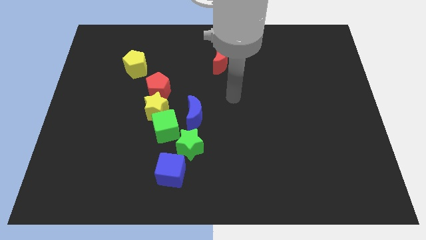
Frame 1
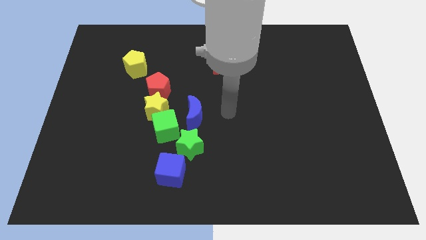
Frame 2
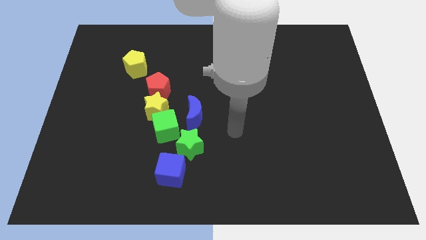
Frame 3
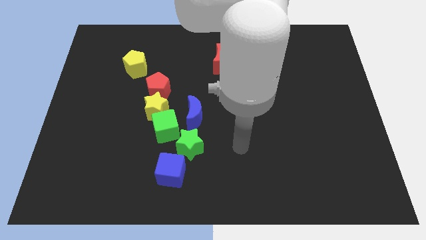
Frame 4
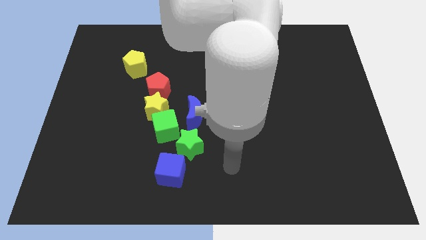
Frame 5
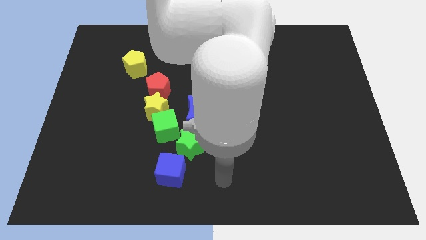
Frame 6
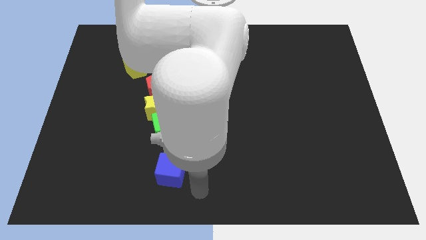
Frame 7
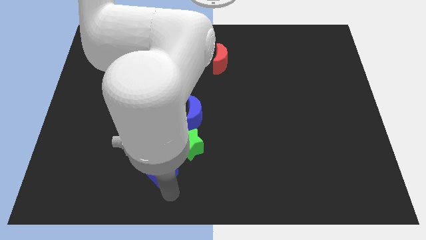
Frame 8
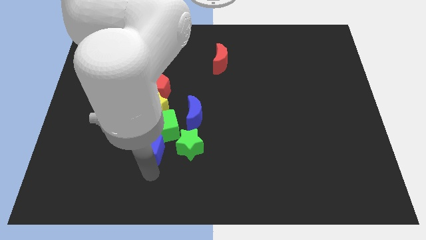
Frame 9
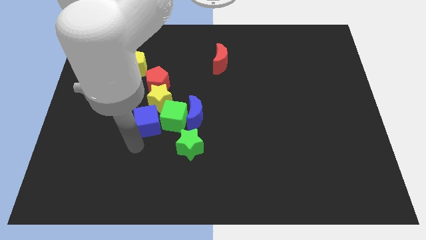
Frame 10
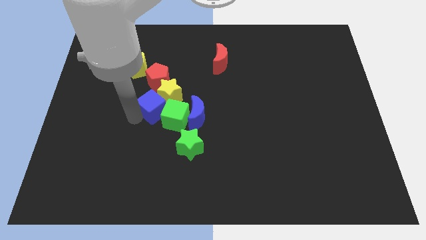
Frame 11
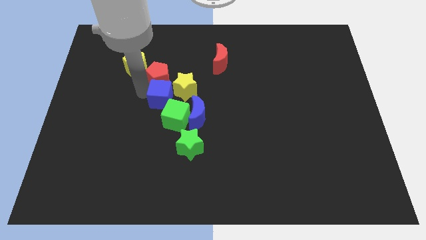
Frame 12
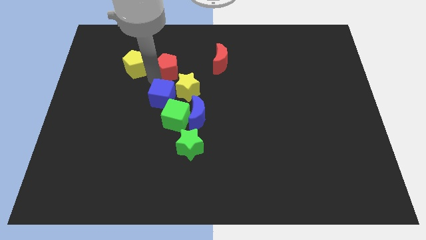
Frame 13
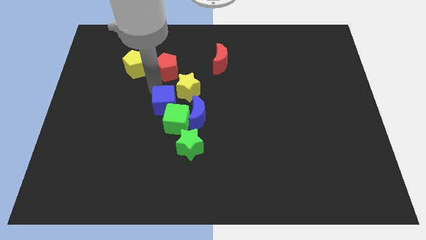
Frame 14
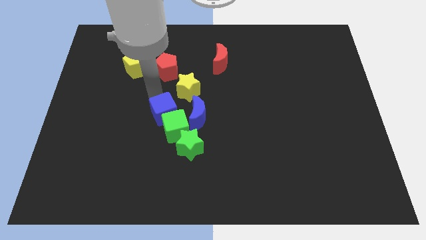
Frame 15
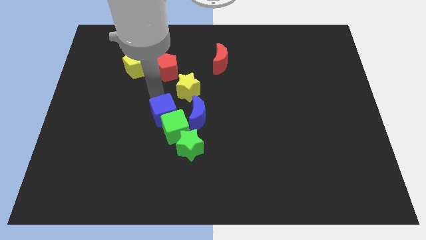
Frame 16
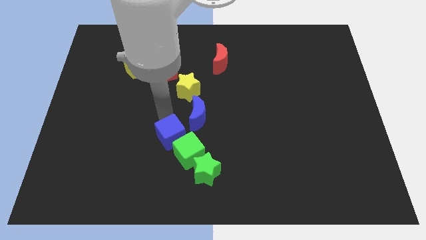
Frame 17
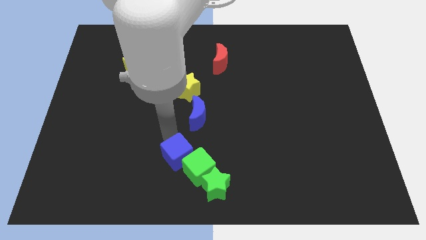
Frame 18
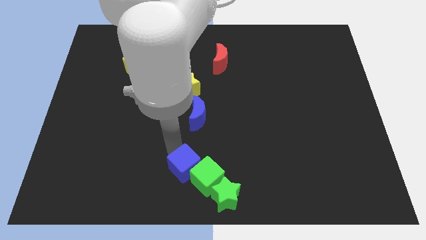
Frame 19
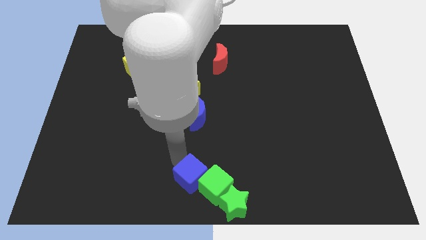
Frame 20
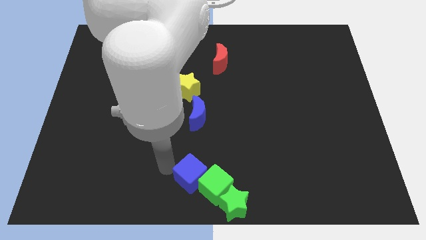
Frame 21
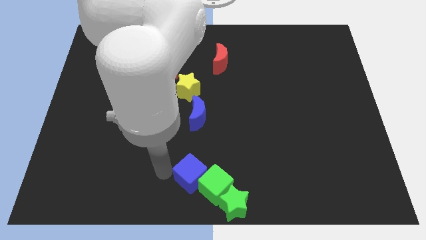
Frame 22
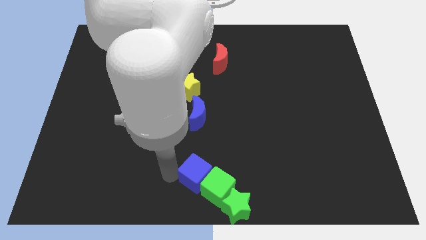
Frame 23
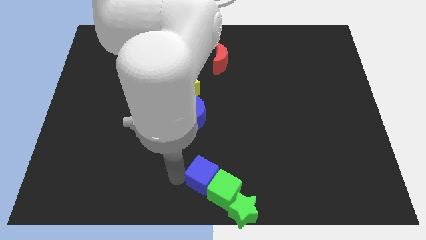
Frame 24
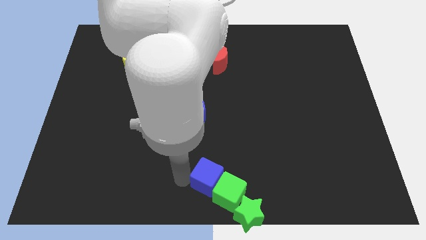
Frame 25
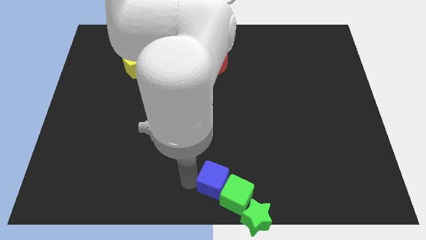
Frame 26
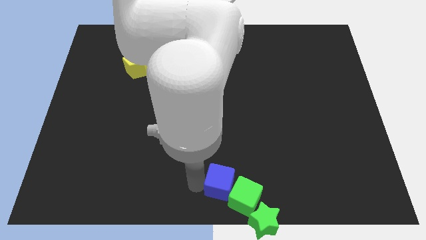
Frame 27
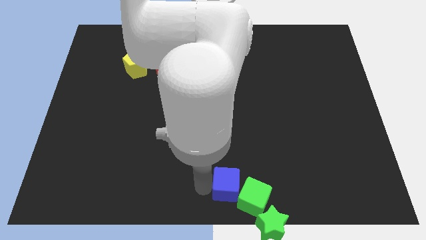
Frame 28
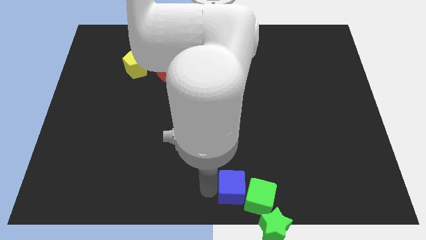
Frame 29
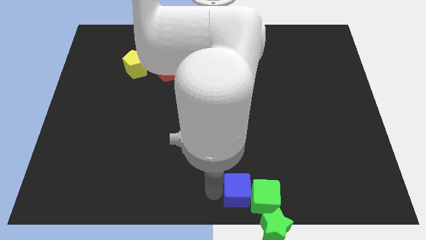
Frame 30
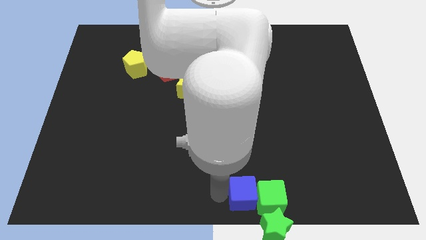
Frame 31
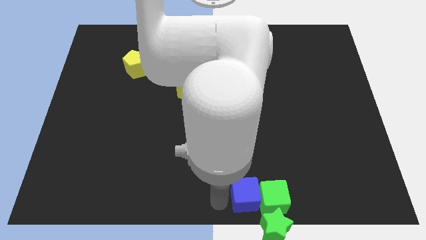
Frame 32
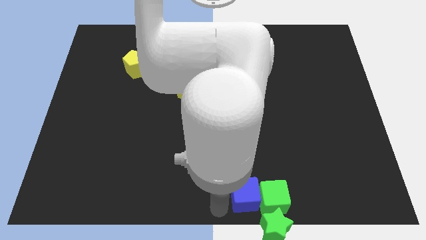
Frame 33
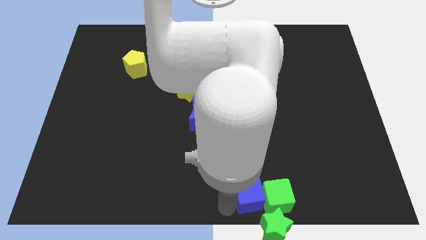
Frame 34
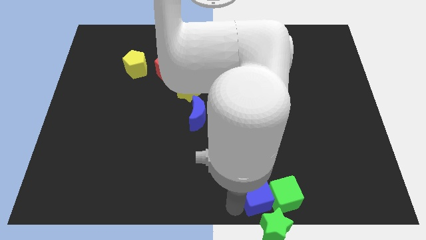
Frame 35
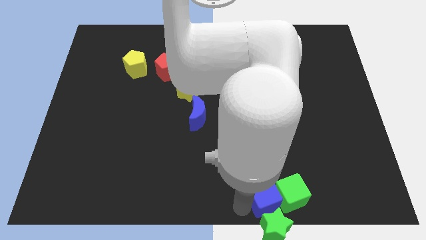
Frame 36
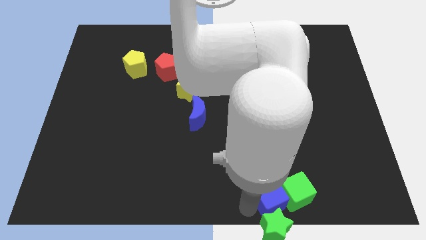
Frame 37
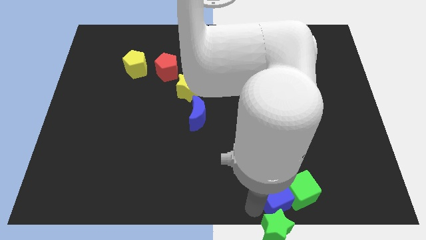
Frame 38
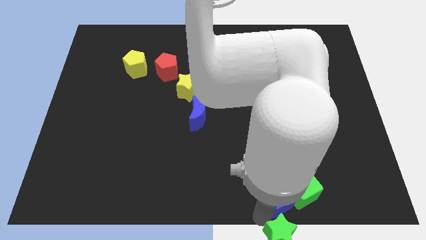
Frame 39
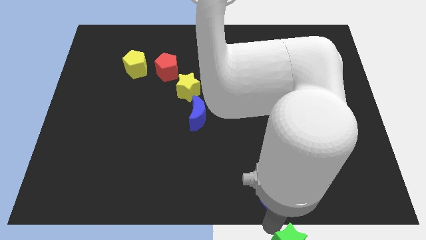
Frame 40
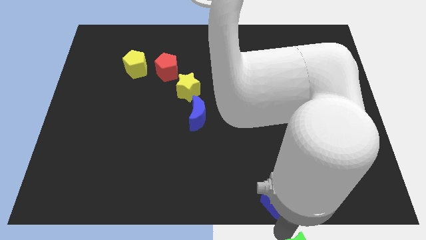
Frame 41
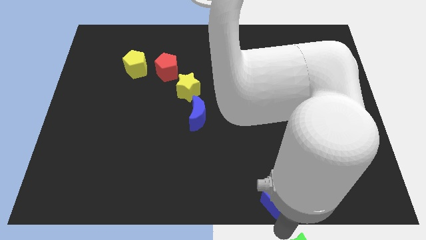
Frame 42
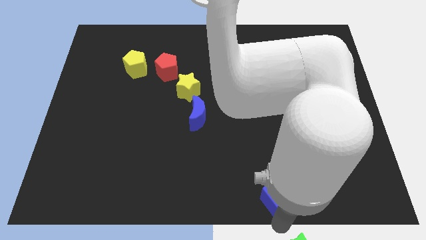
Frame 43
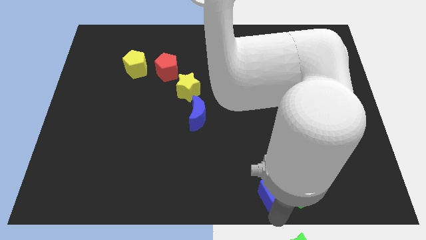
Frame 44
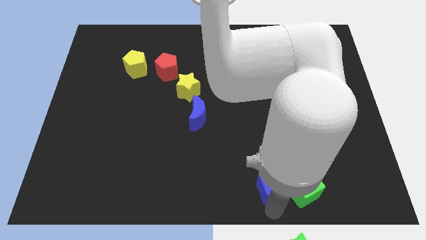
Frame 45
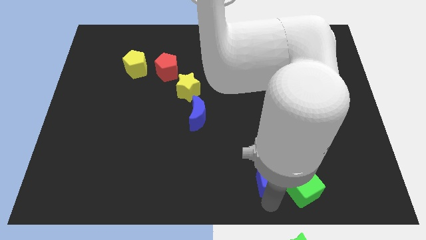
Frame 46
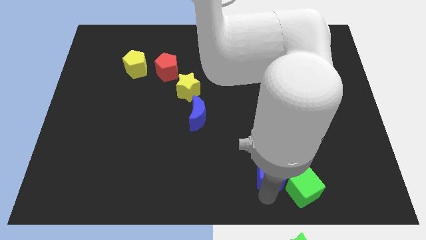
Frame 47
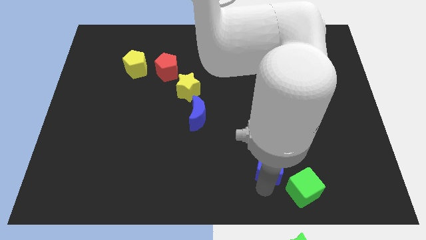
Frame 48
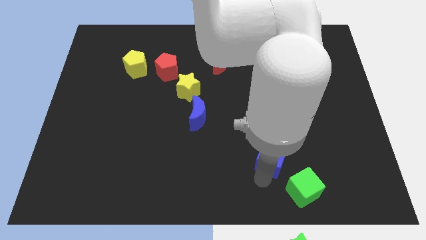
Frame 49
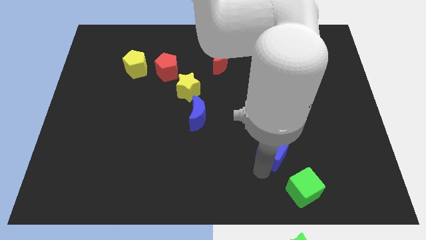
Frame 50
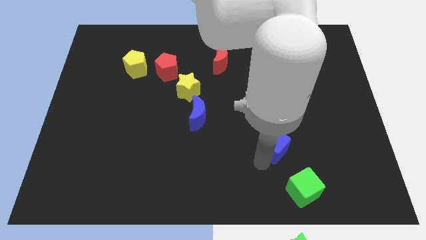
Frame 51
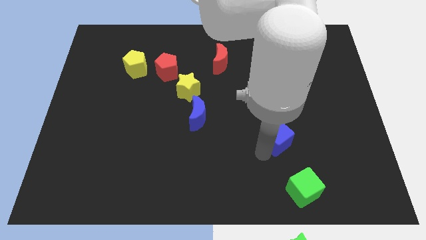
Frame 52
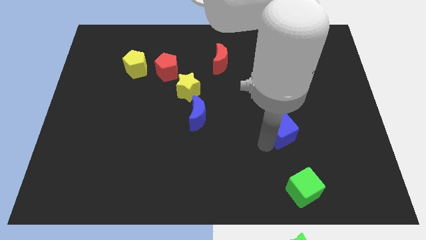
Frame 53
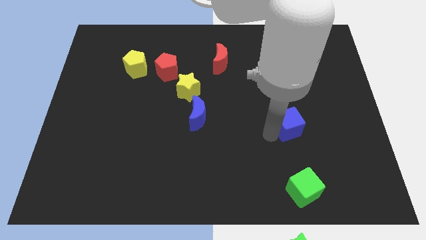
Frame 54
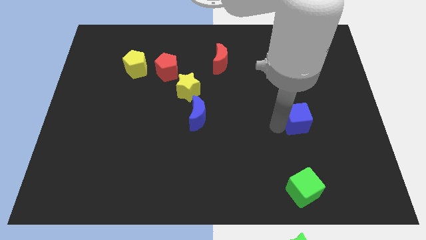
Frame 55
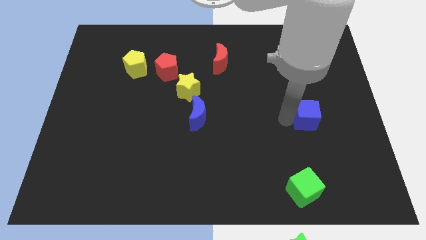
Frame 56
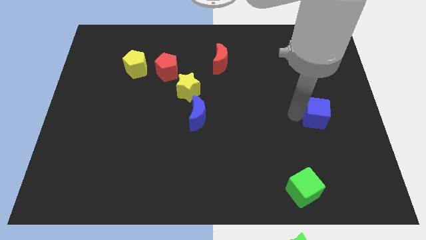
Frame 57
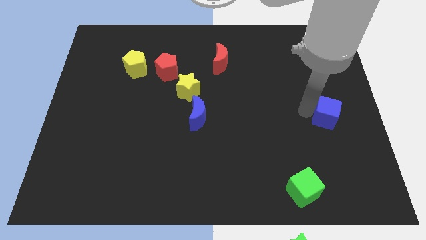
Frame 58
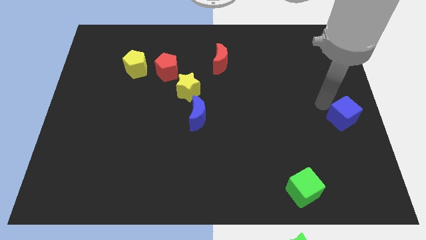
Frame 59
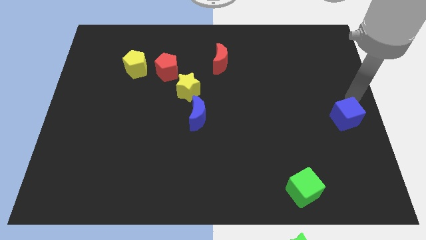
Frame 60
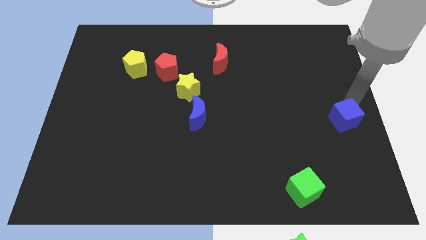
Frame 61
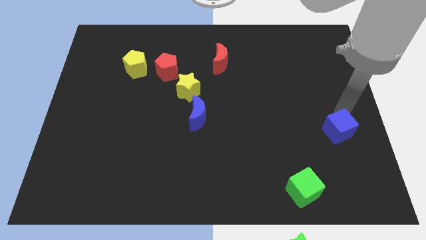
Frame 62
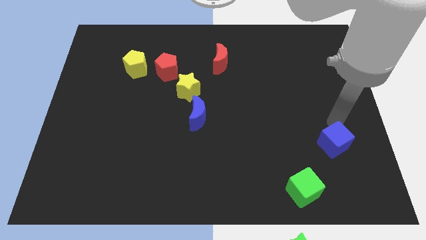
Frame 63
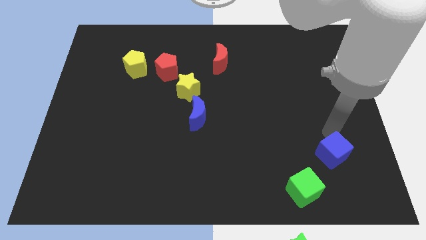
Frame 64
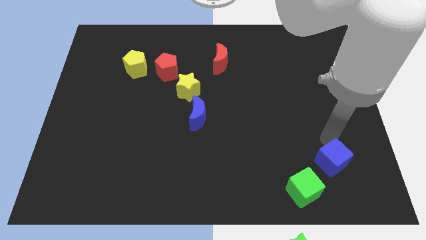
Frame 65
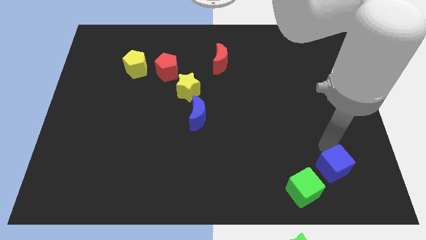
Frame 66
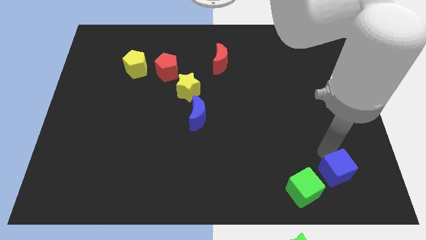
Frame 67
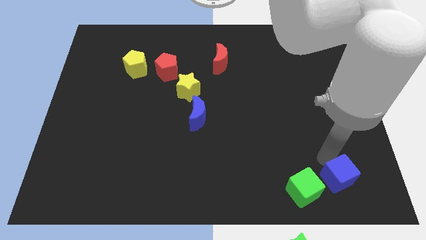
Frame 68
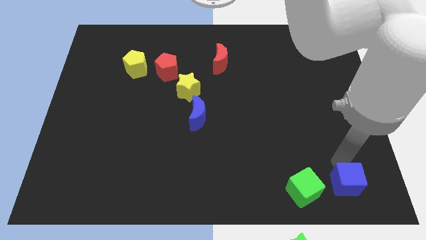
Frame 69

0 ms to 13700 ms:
slide the blue cube to the bottom right of the board
